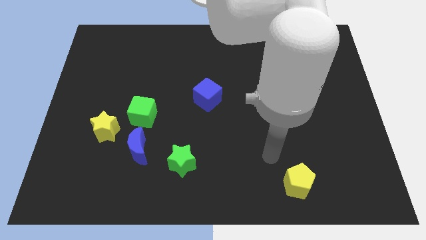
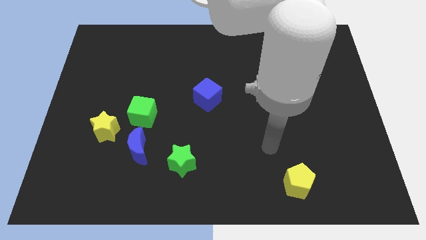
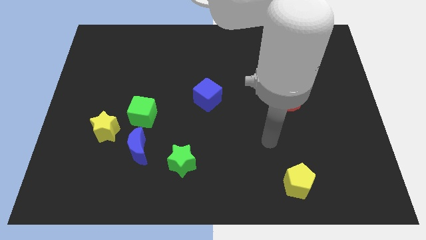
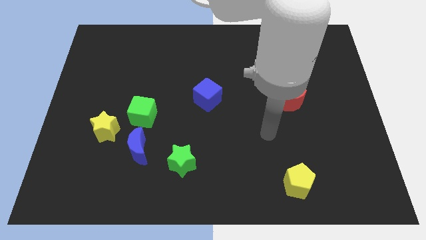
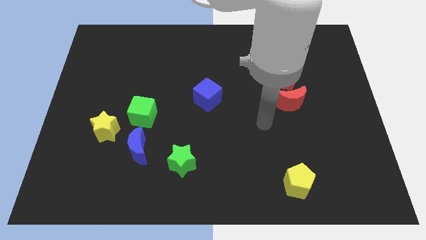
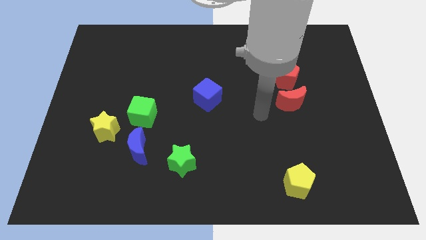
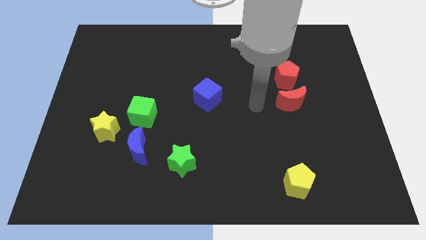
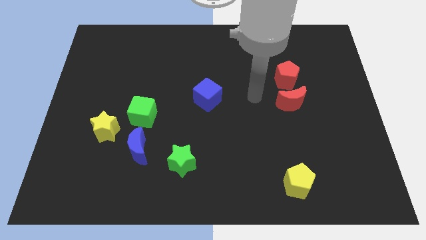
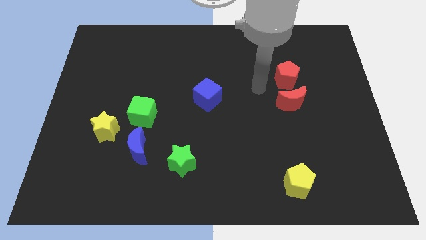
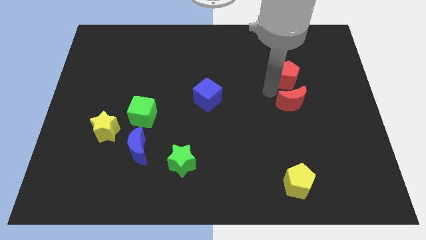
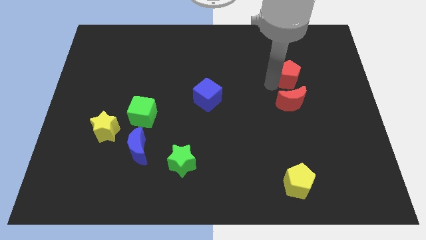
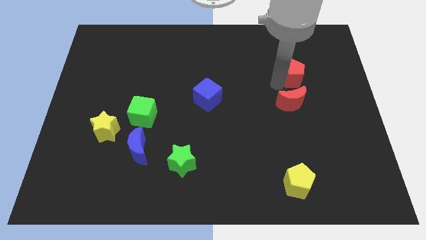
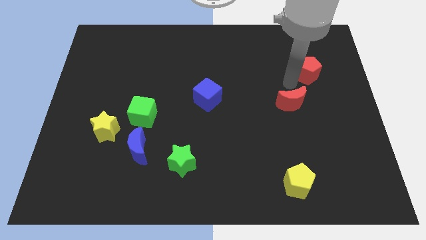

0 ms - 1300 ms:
pull the red moon apart from the red pentagon

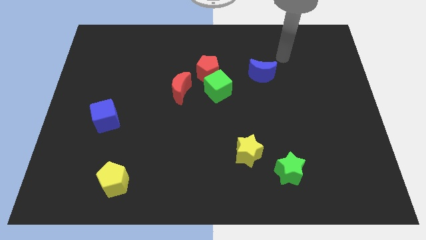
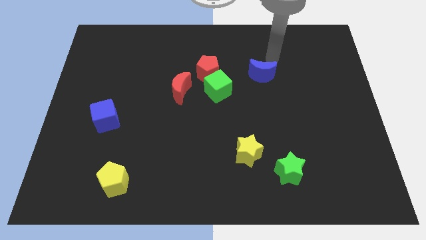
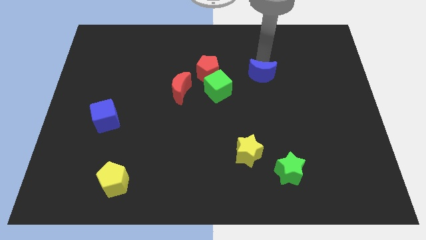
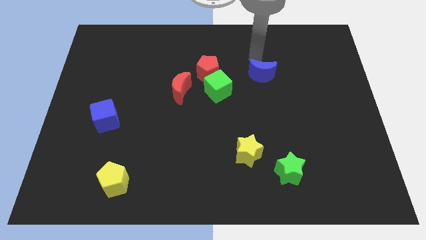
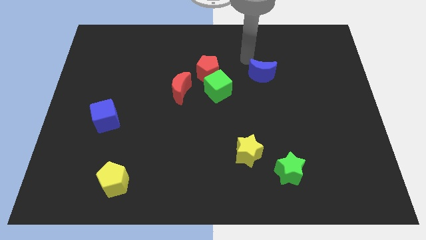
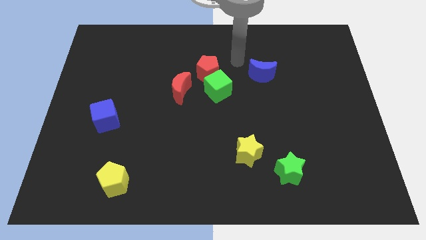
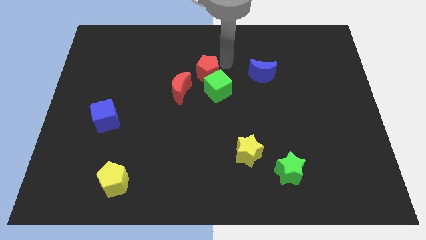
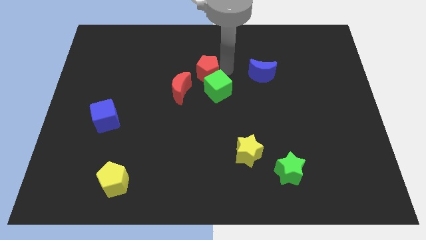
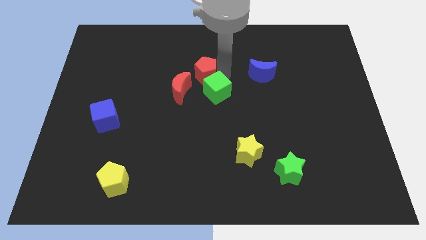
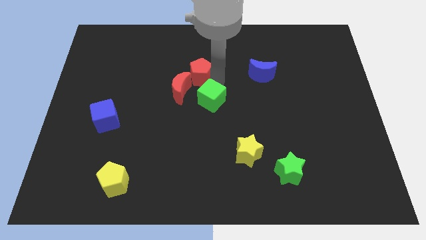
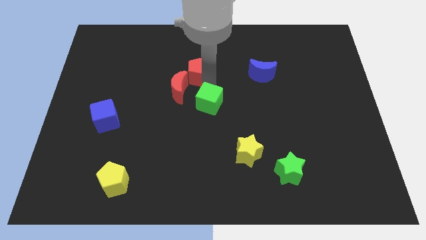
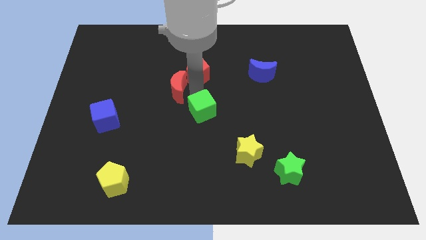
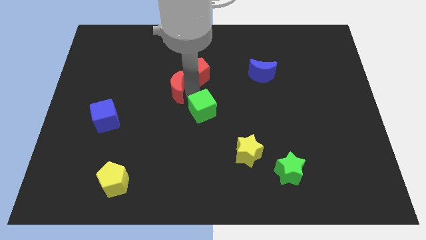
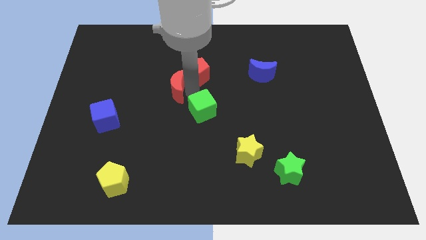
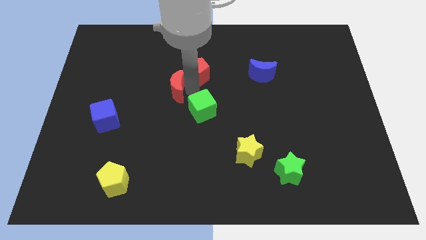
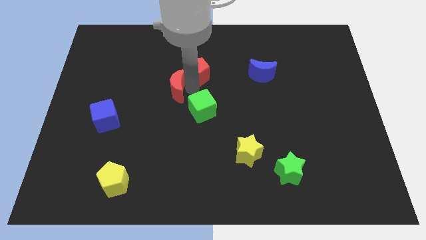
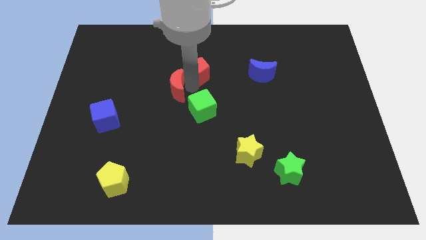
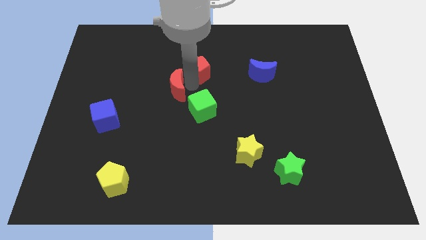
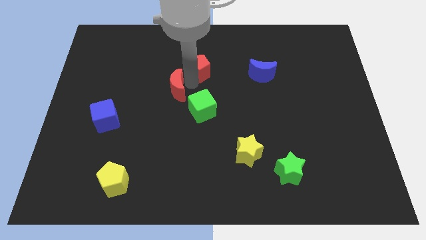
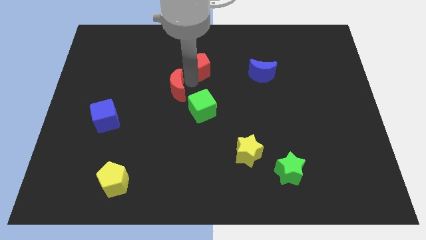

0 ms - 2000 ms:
separate the red pentagon from the green cube and red moon

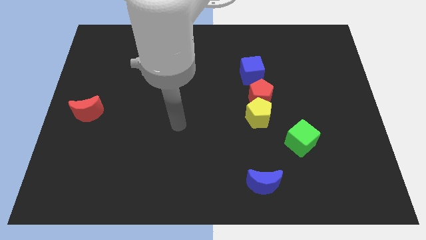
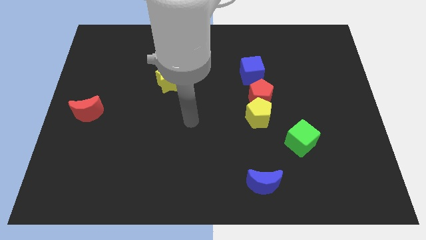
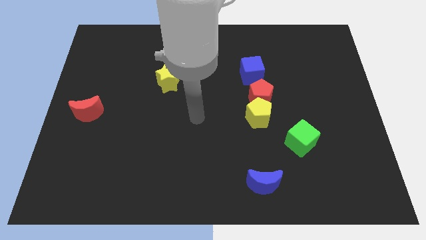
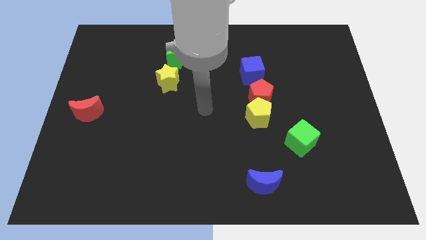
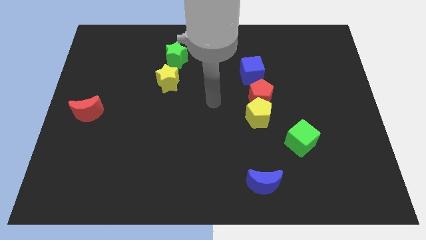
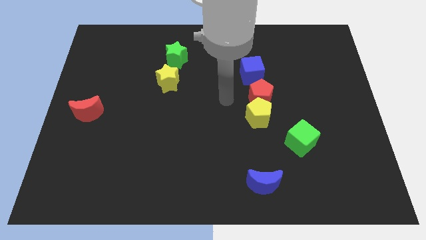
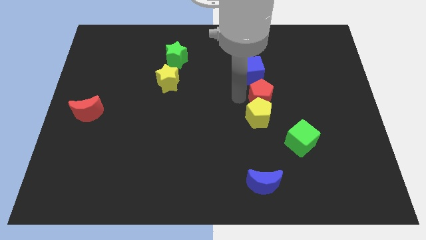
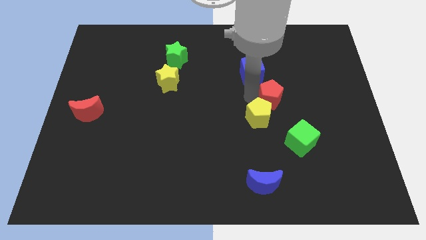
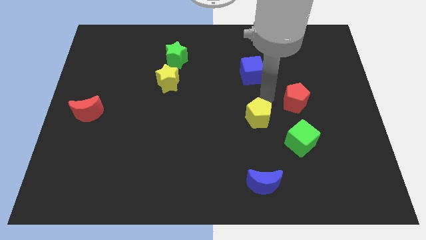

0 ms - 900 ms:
move the yellow pentagon away from the red pentagon

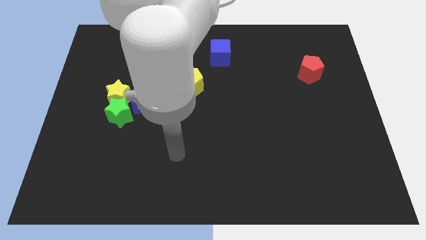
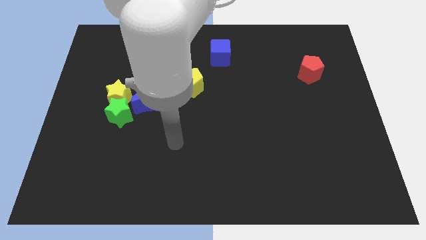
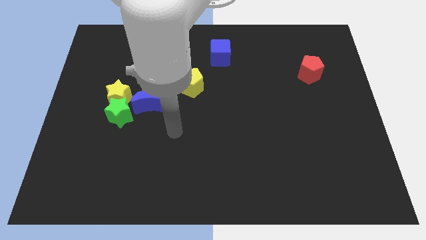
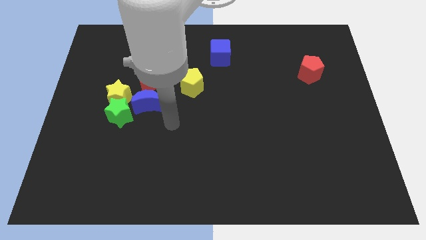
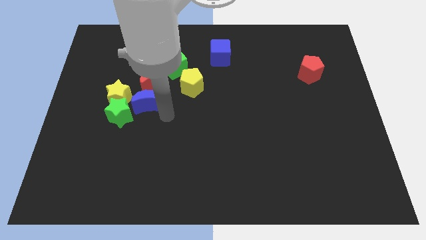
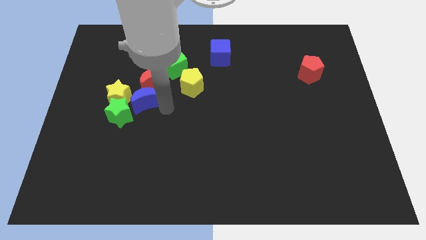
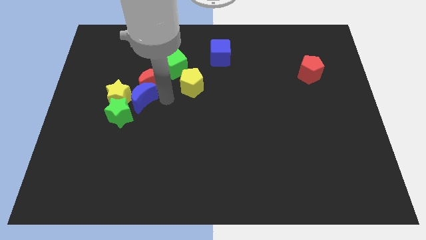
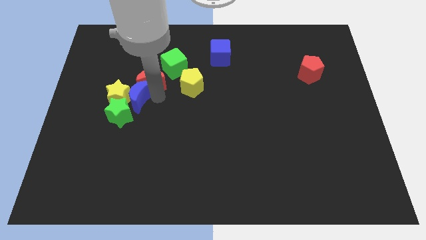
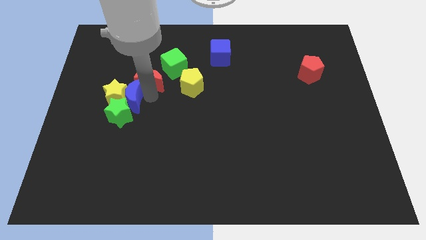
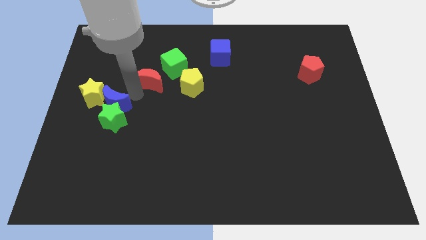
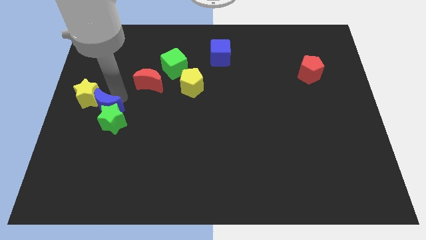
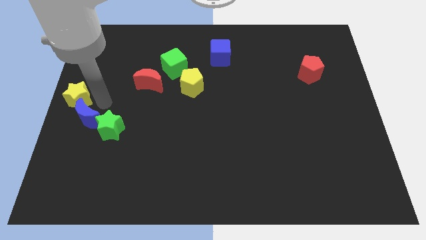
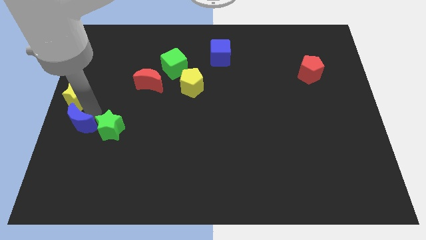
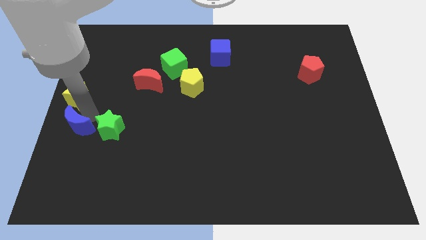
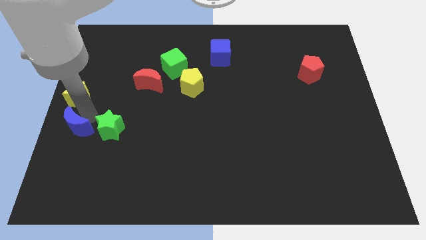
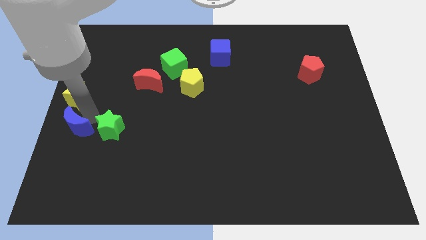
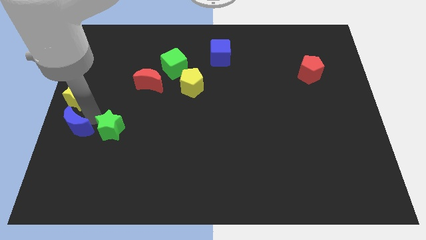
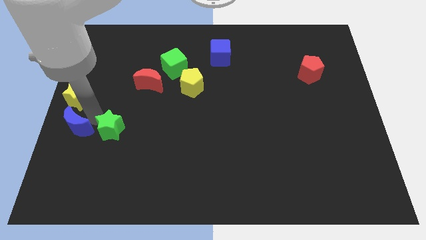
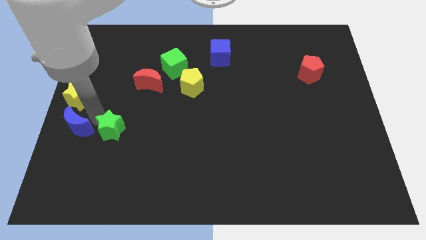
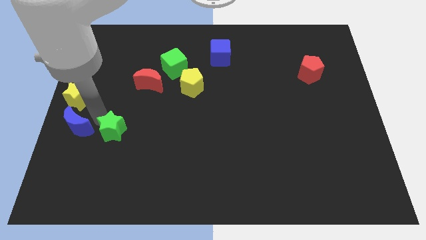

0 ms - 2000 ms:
separate the green star from the yellow star and blue moon

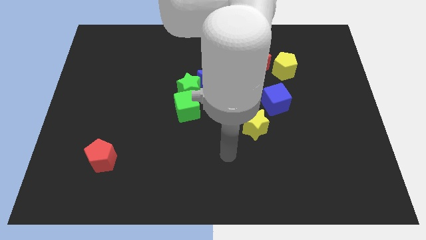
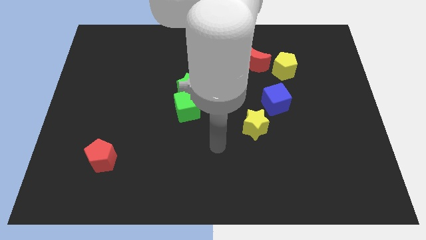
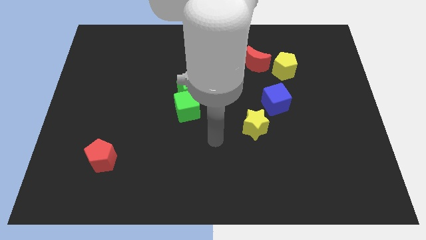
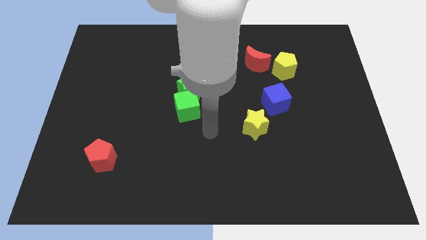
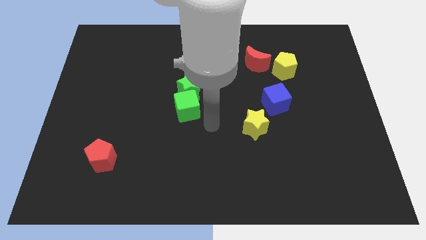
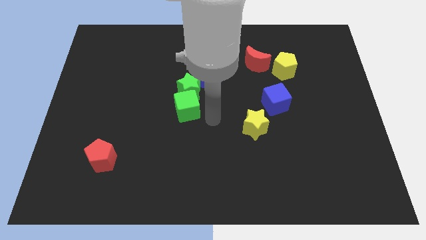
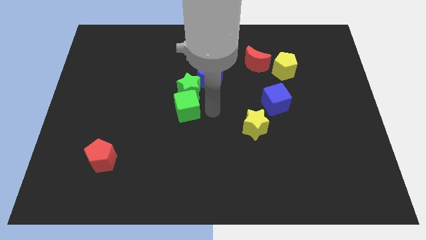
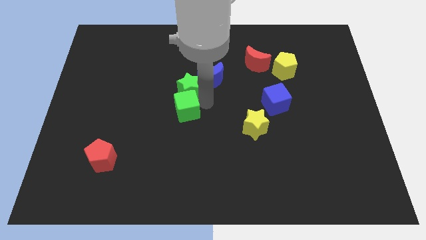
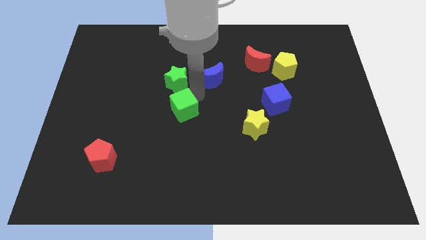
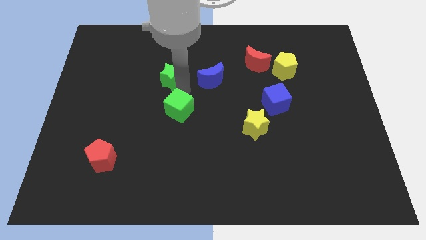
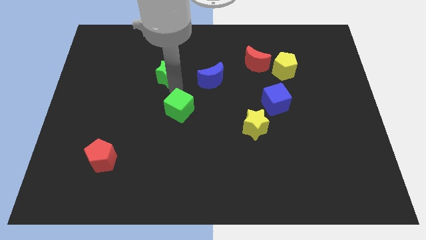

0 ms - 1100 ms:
move the green cube away from the green star

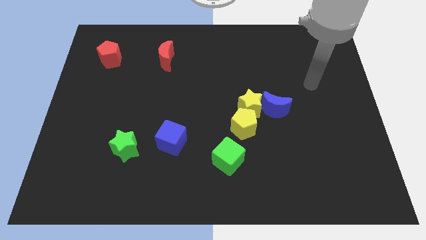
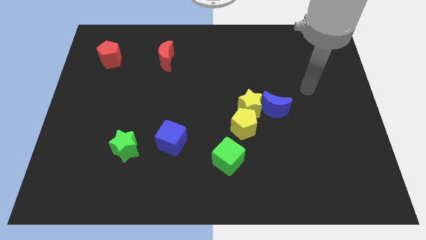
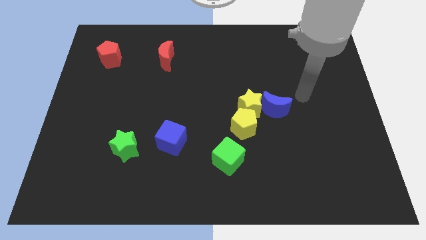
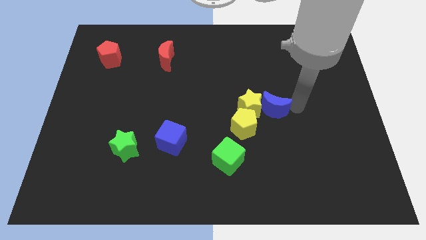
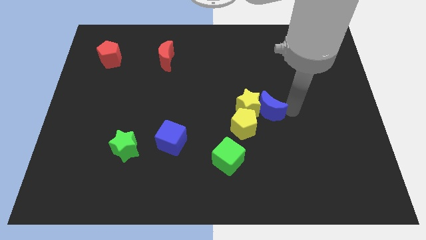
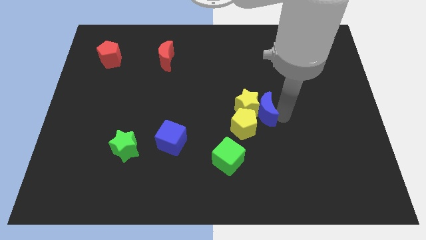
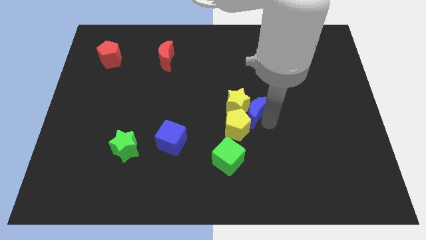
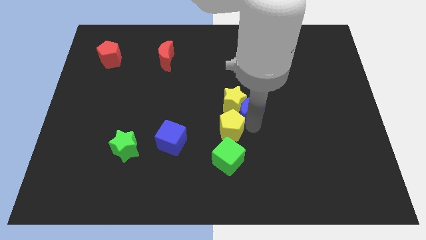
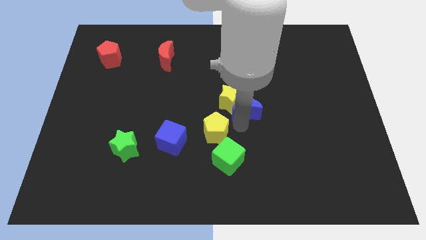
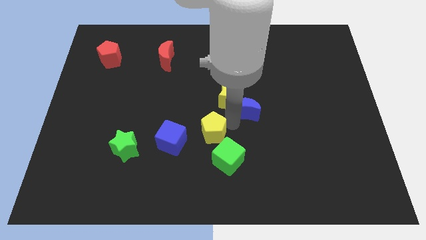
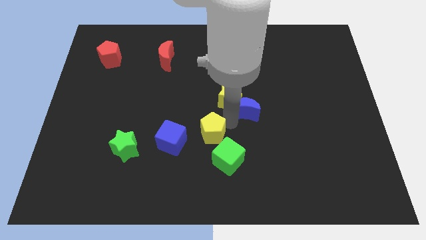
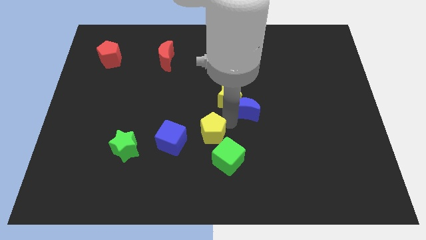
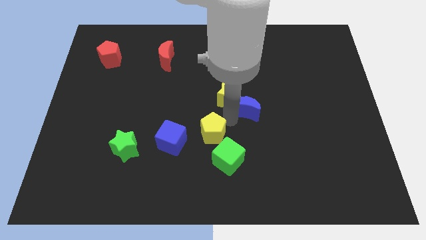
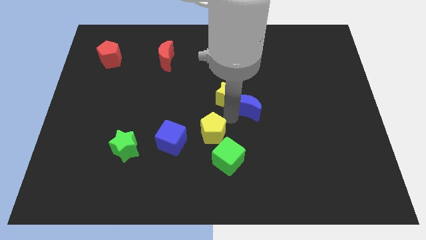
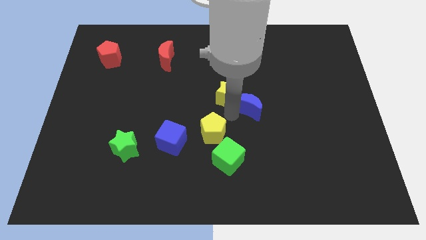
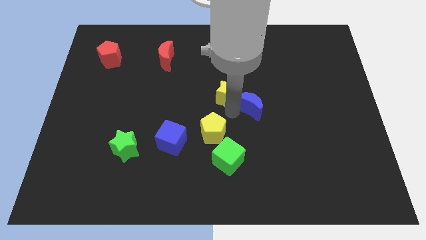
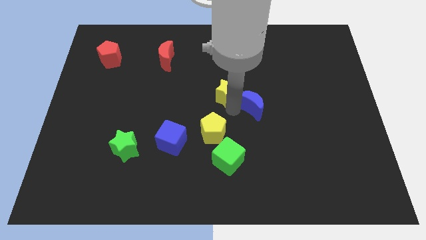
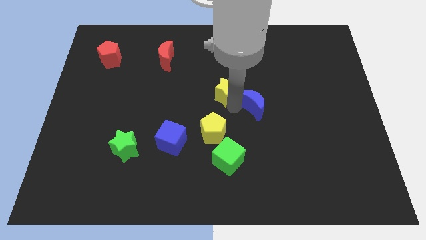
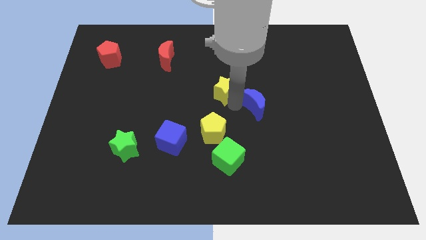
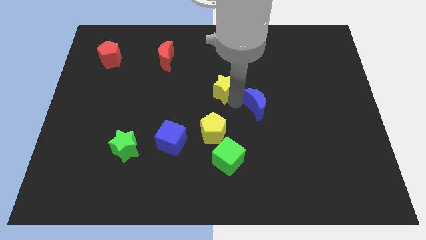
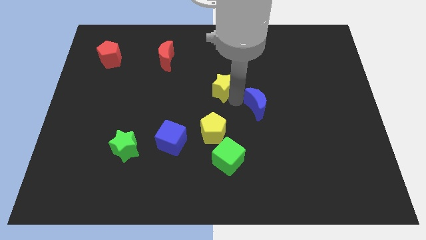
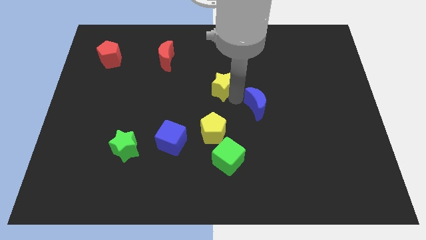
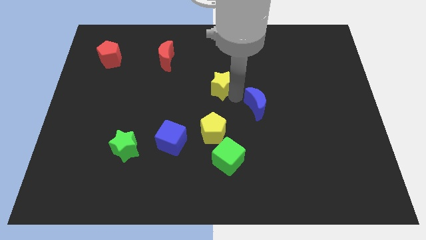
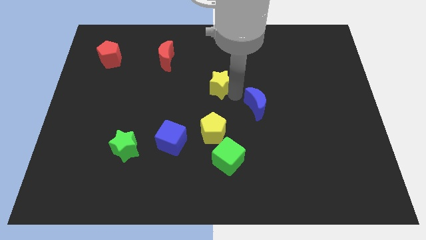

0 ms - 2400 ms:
pull the yellow star apart from the blue moon and yellow pentagon
